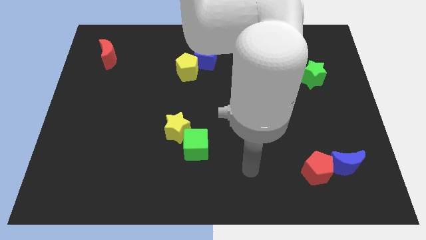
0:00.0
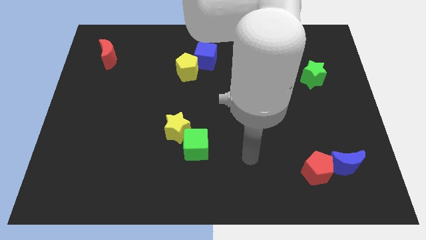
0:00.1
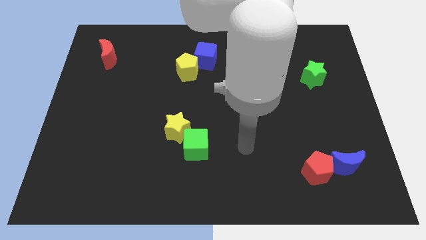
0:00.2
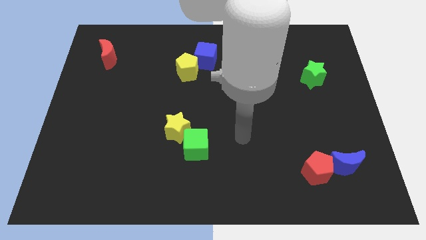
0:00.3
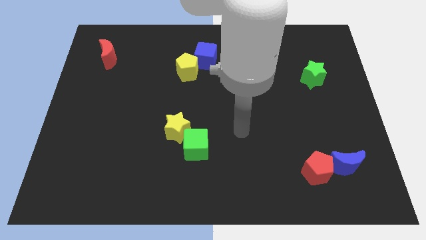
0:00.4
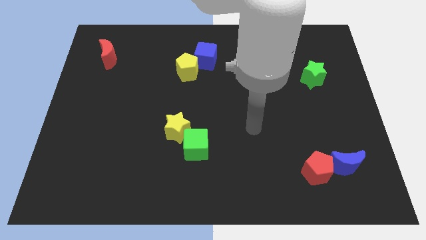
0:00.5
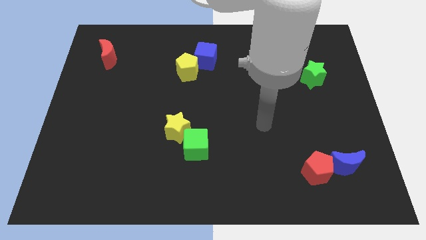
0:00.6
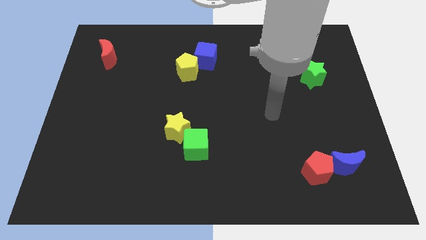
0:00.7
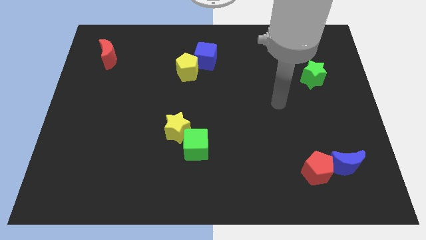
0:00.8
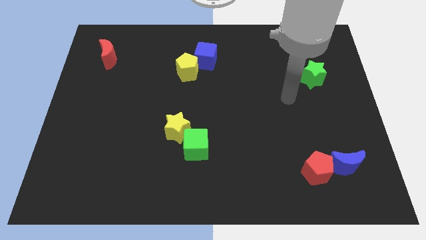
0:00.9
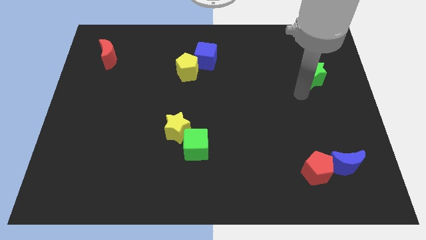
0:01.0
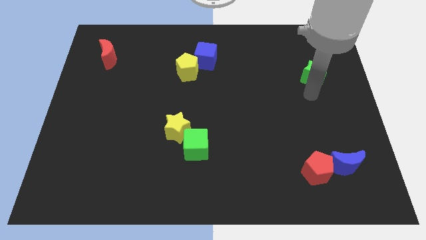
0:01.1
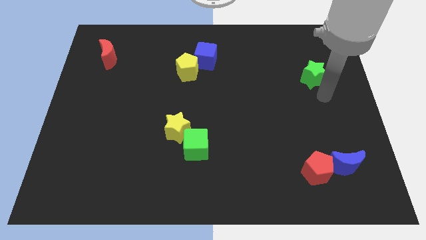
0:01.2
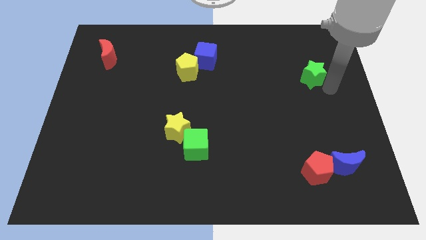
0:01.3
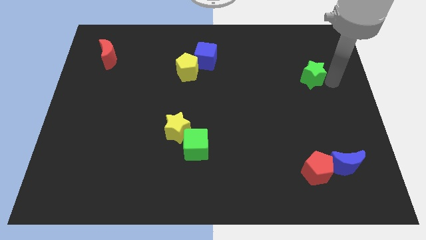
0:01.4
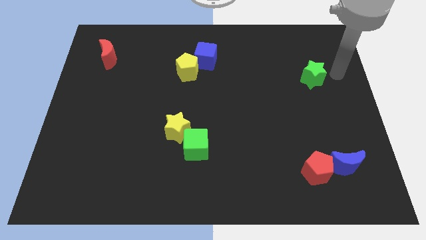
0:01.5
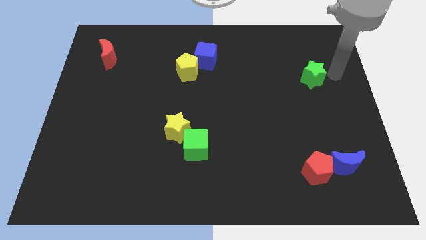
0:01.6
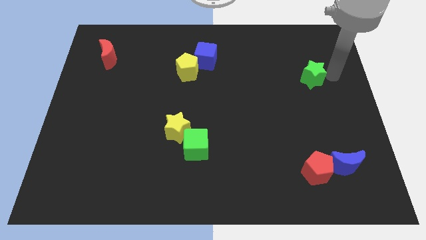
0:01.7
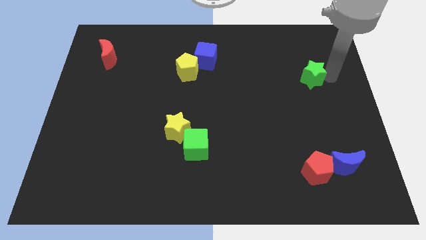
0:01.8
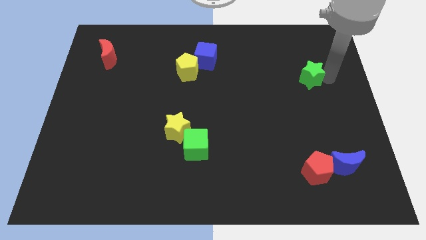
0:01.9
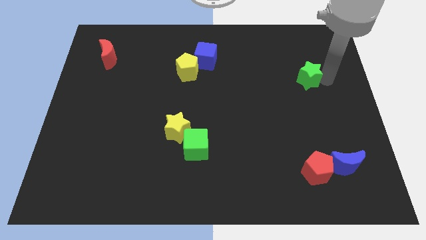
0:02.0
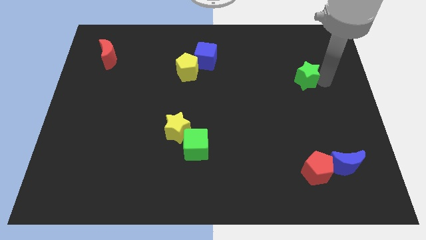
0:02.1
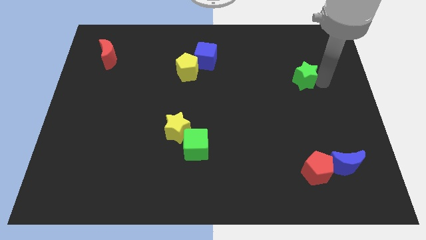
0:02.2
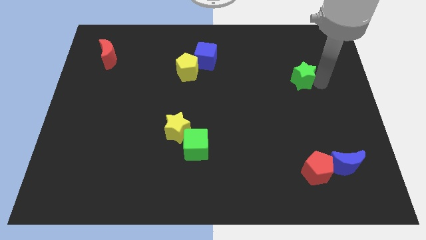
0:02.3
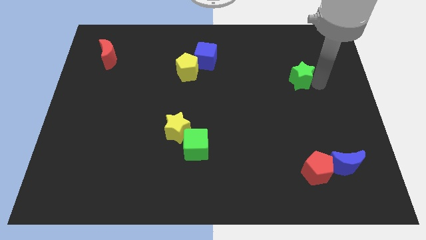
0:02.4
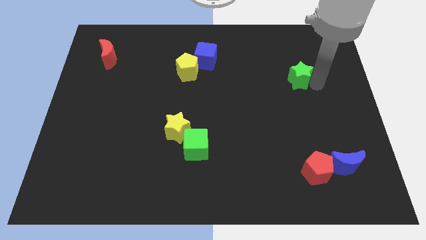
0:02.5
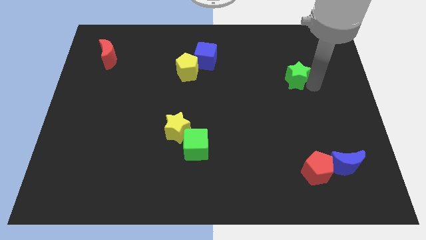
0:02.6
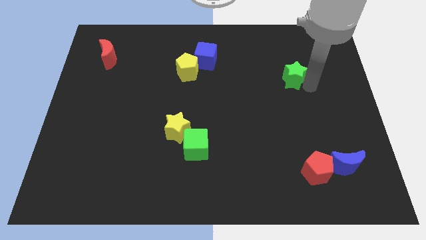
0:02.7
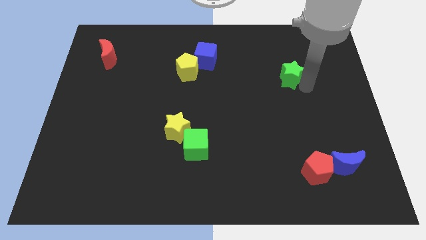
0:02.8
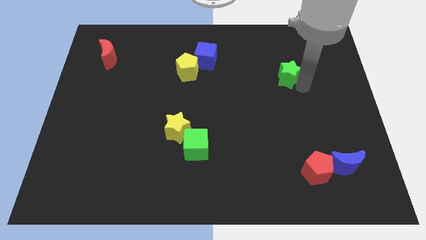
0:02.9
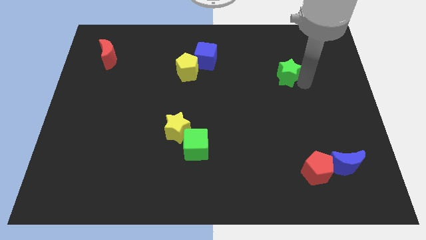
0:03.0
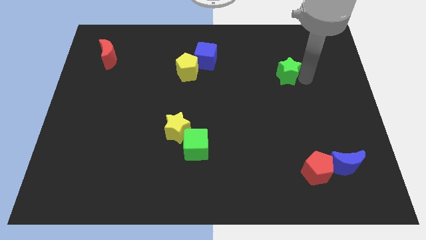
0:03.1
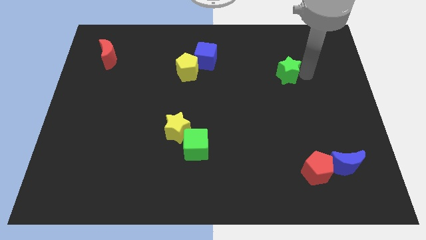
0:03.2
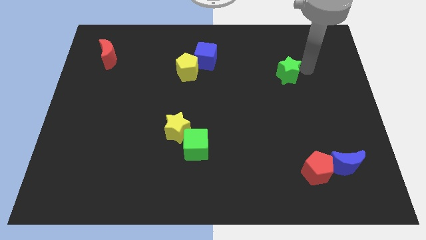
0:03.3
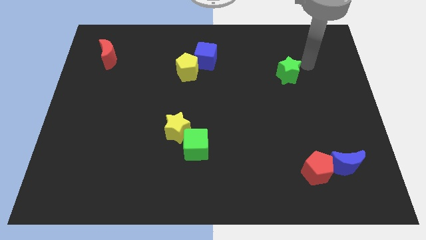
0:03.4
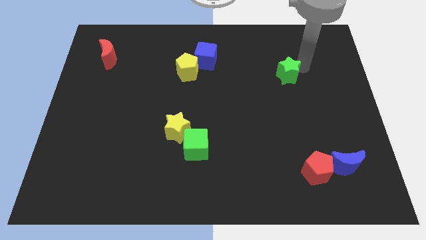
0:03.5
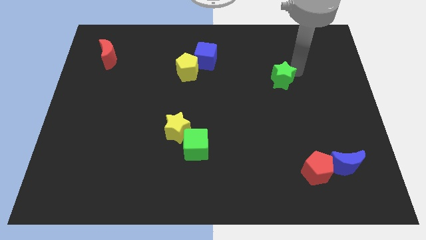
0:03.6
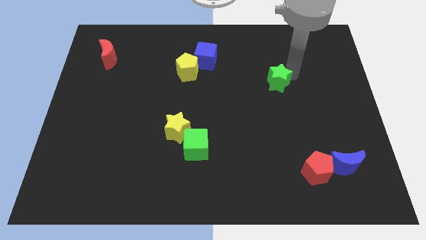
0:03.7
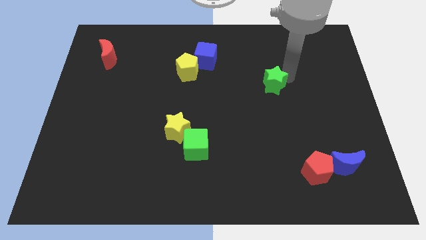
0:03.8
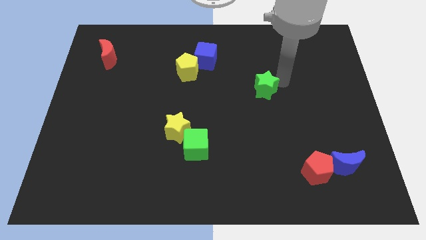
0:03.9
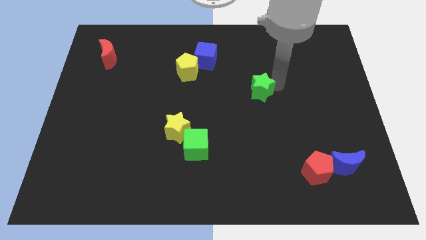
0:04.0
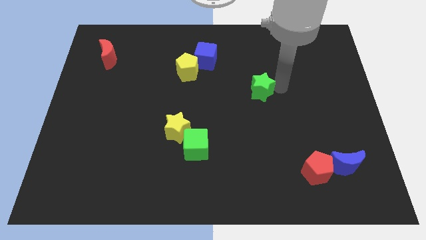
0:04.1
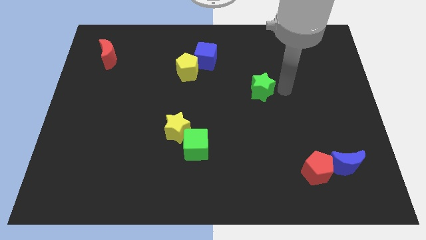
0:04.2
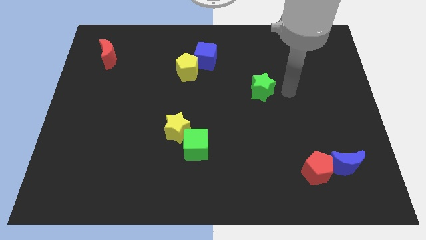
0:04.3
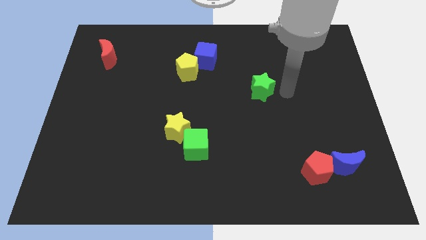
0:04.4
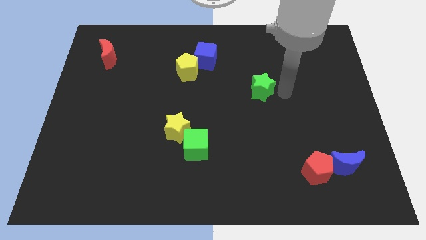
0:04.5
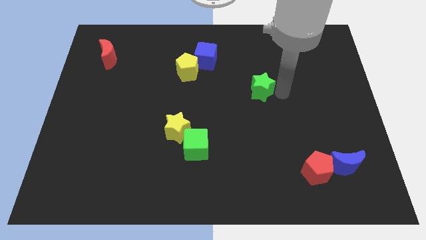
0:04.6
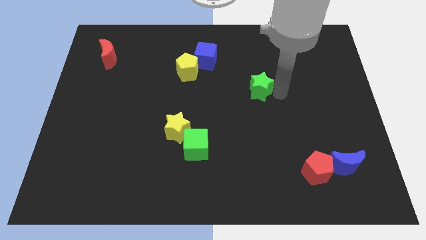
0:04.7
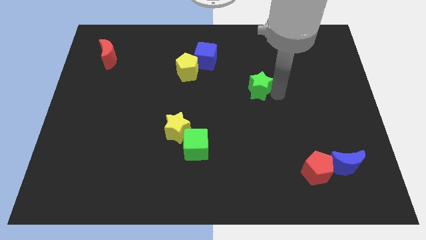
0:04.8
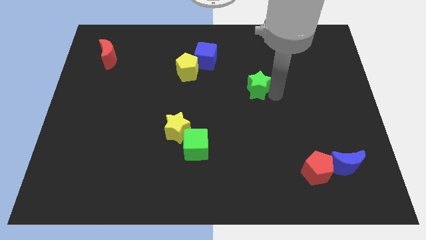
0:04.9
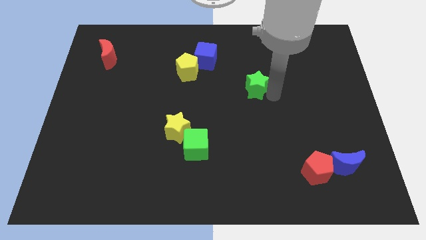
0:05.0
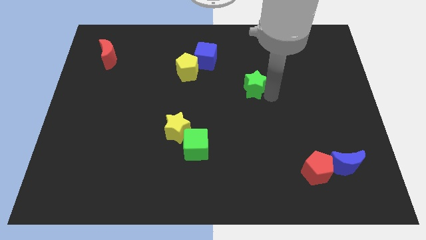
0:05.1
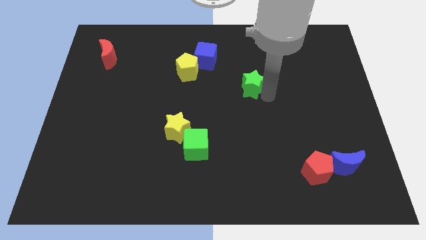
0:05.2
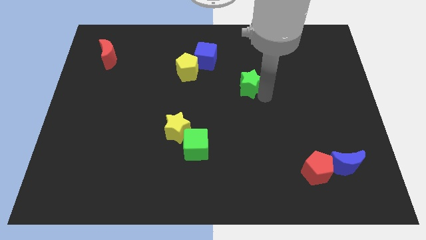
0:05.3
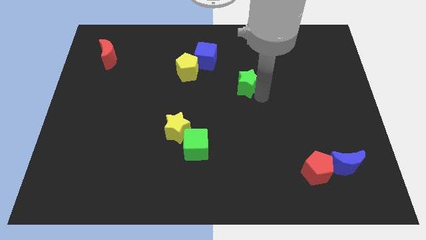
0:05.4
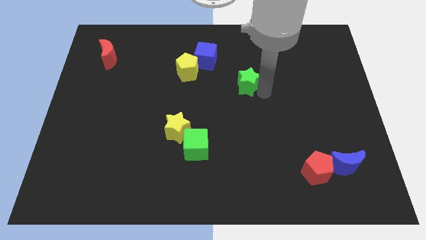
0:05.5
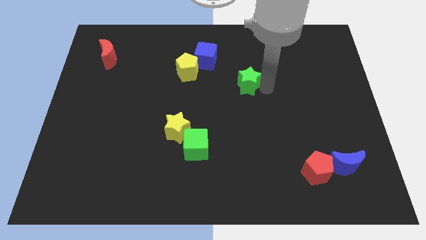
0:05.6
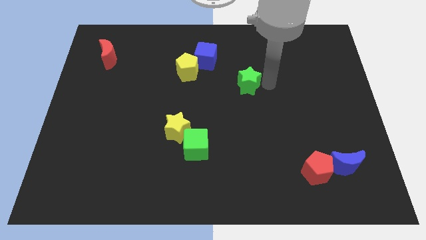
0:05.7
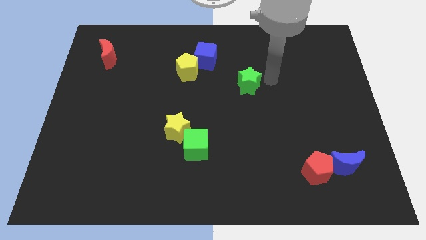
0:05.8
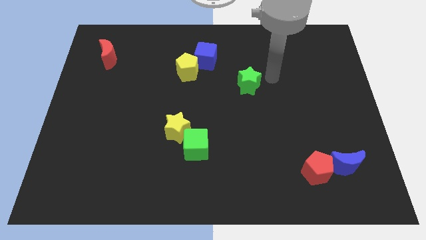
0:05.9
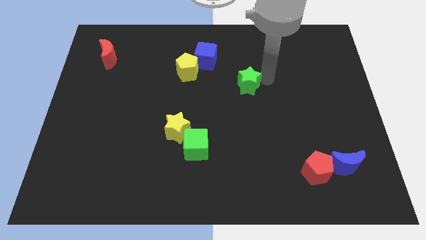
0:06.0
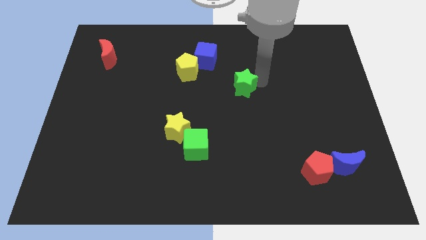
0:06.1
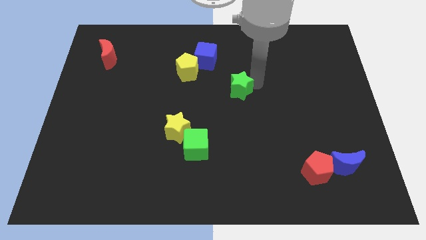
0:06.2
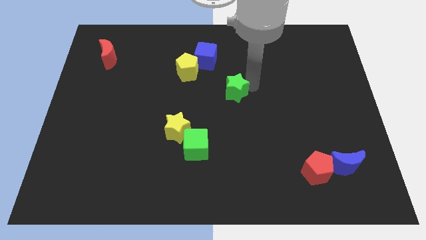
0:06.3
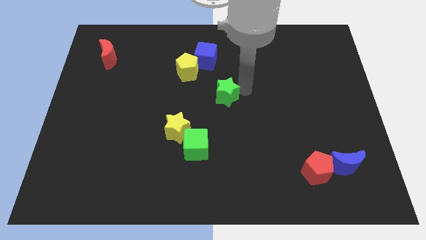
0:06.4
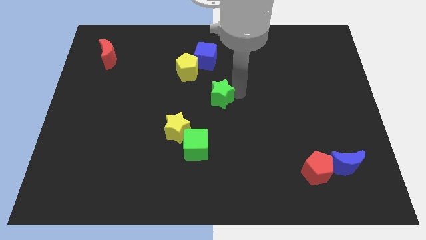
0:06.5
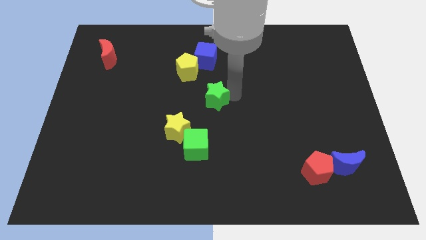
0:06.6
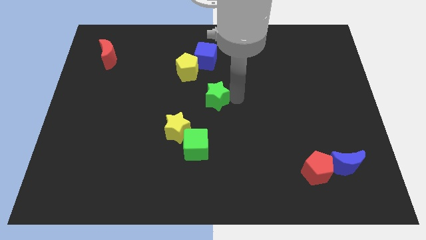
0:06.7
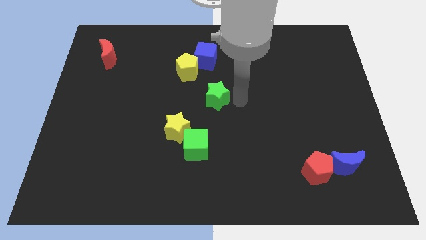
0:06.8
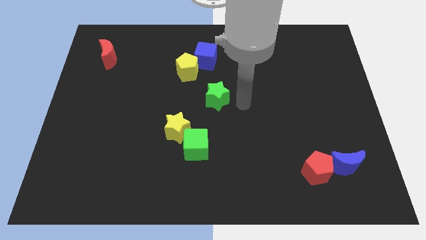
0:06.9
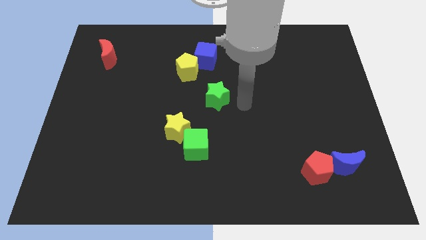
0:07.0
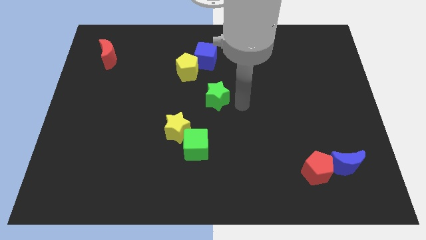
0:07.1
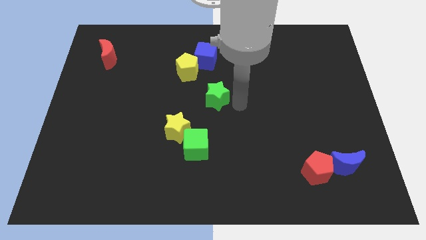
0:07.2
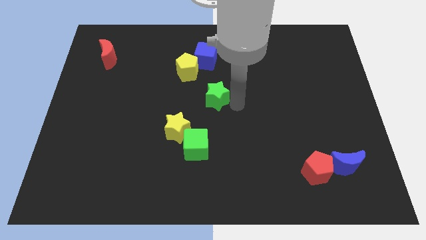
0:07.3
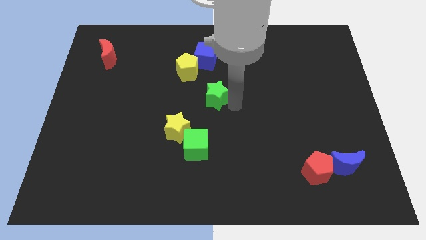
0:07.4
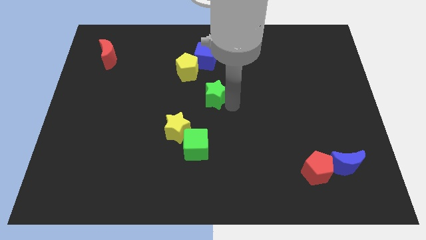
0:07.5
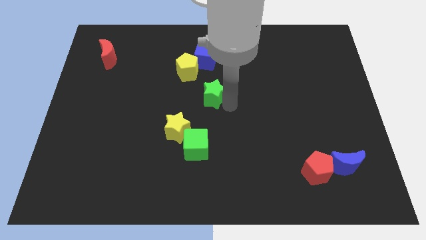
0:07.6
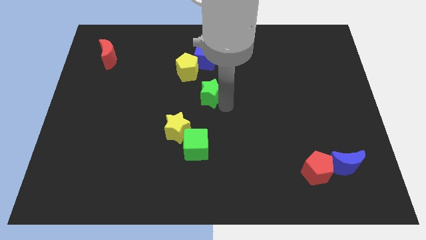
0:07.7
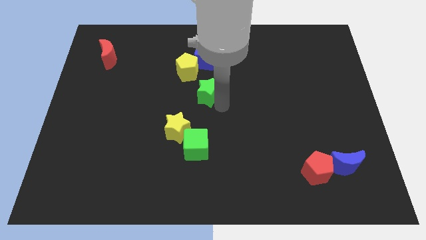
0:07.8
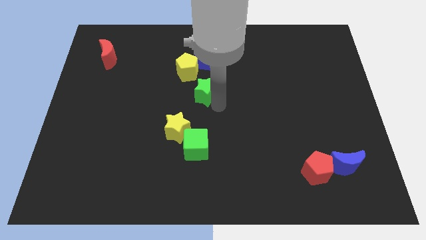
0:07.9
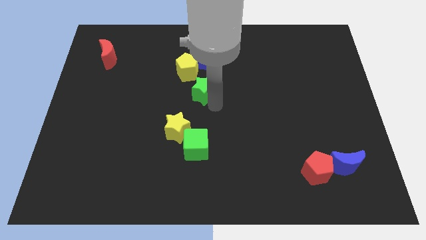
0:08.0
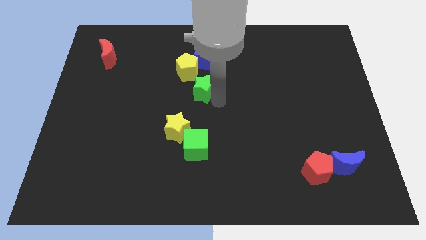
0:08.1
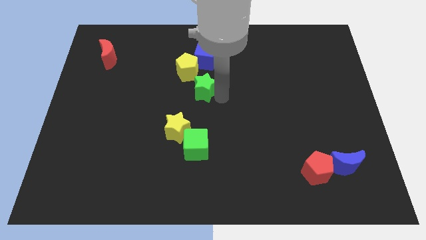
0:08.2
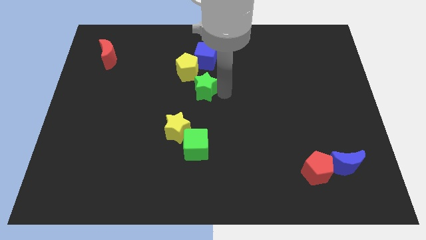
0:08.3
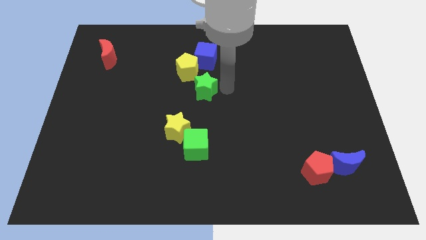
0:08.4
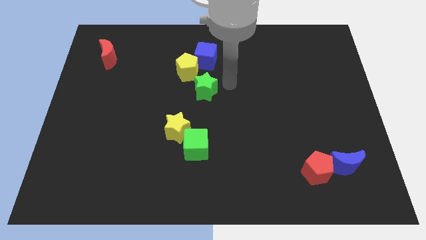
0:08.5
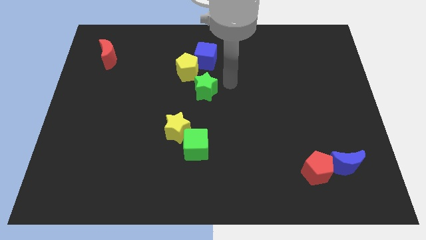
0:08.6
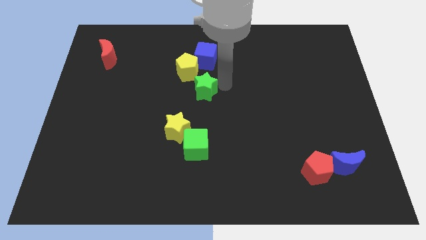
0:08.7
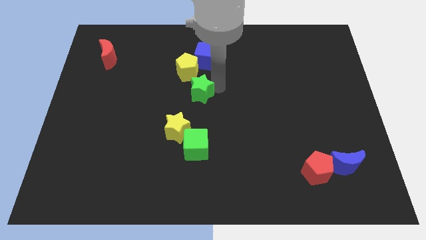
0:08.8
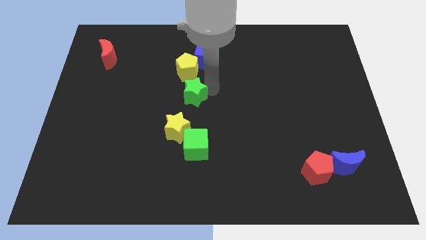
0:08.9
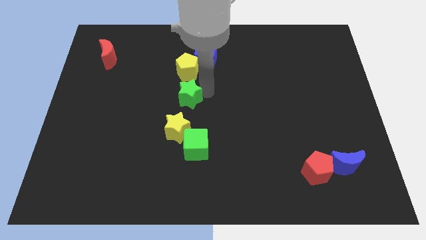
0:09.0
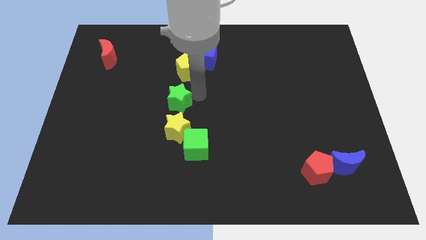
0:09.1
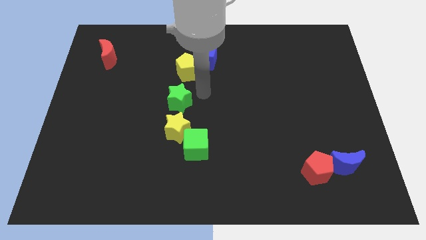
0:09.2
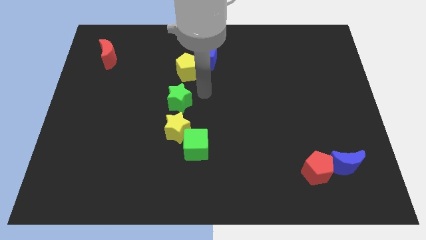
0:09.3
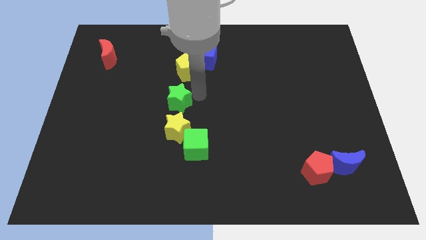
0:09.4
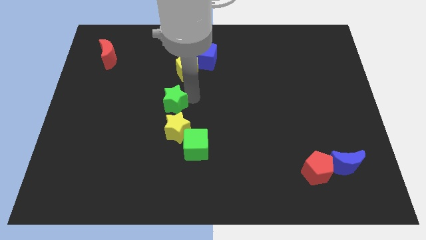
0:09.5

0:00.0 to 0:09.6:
push the green star diagonally up and to the left of the yellow star
